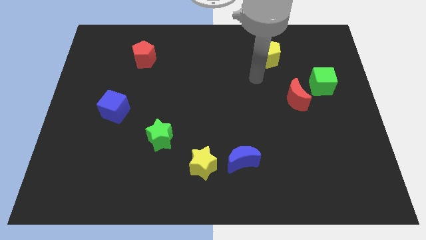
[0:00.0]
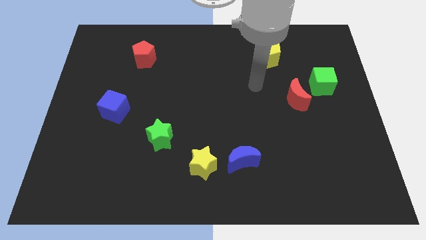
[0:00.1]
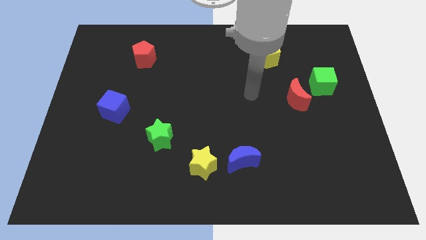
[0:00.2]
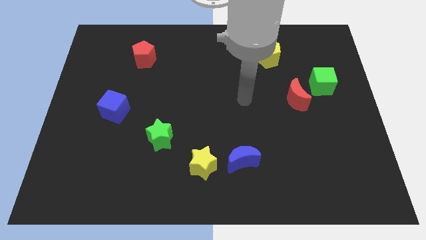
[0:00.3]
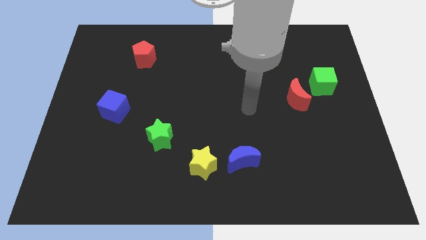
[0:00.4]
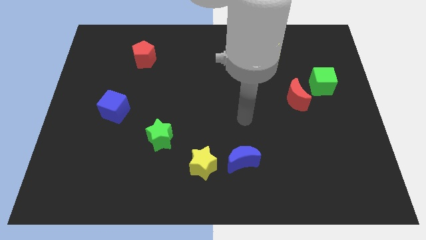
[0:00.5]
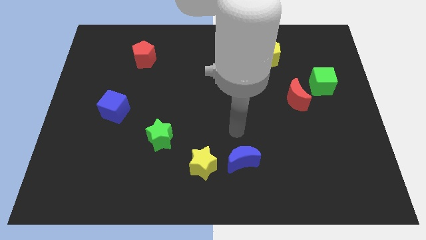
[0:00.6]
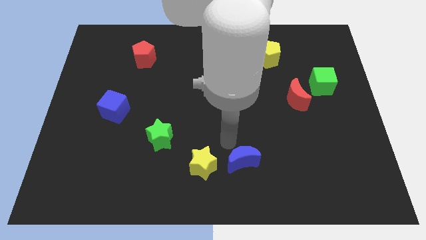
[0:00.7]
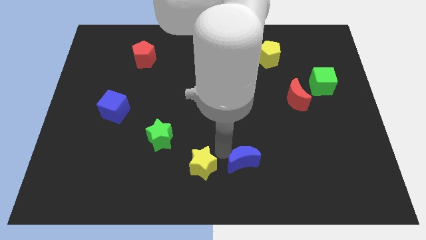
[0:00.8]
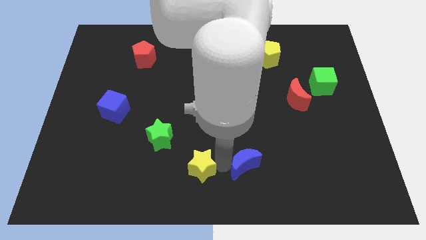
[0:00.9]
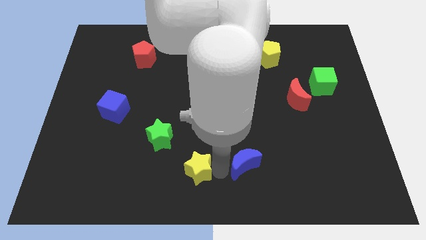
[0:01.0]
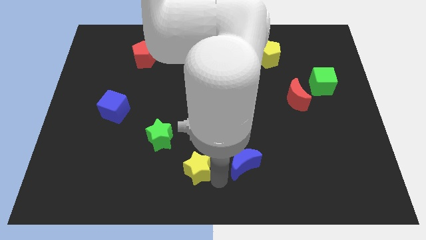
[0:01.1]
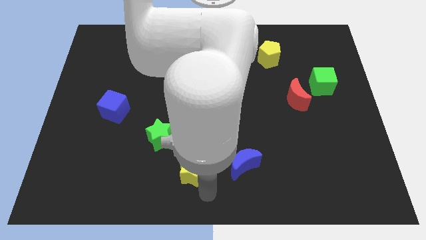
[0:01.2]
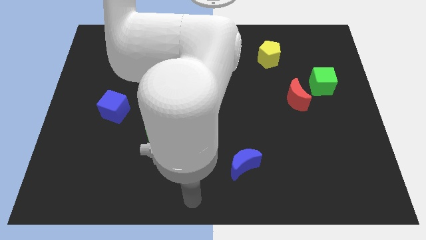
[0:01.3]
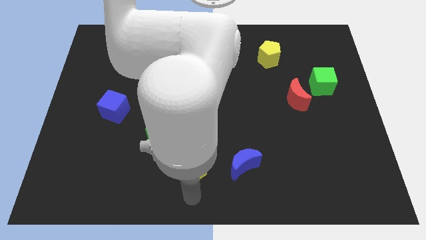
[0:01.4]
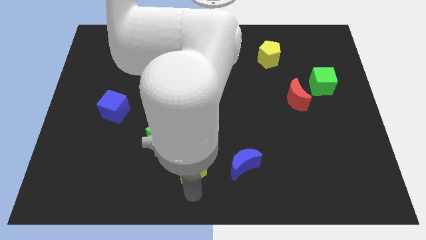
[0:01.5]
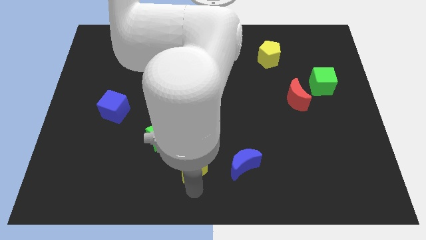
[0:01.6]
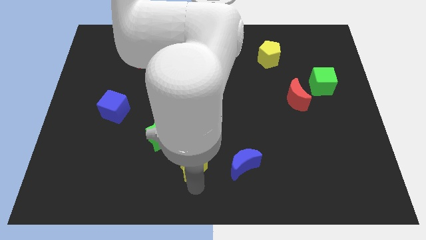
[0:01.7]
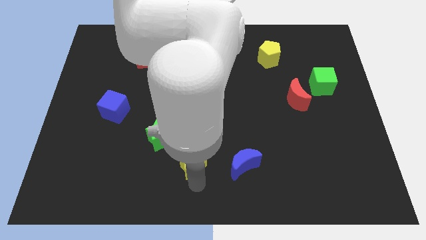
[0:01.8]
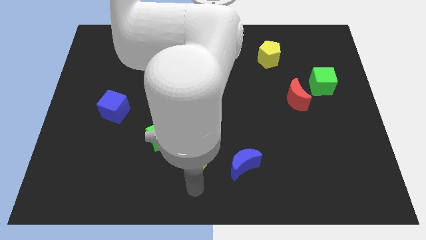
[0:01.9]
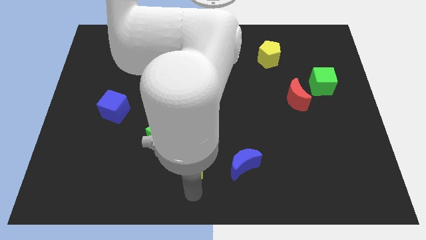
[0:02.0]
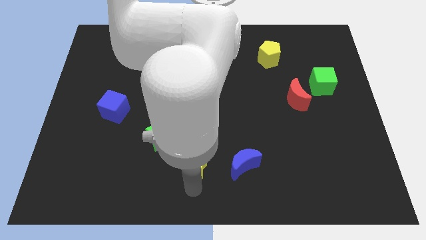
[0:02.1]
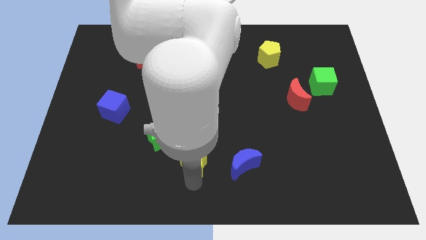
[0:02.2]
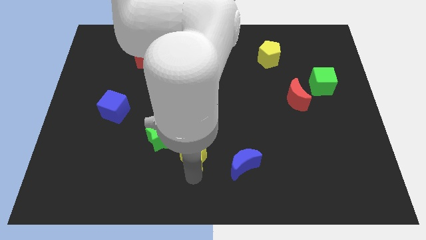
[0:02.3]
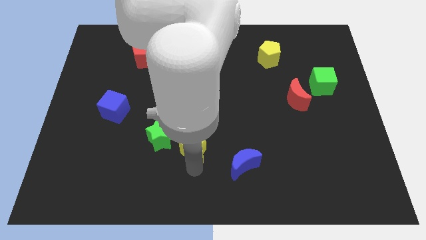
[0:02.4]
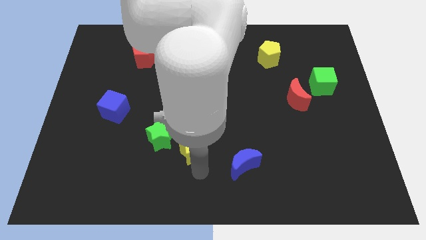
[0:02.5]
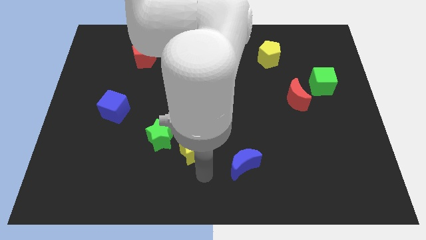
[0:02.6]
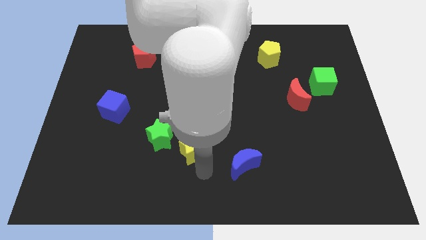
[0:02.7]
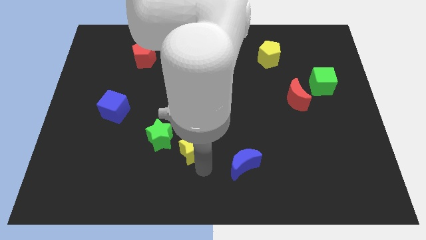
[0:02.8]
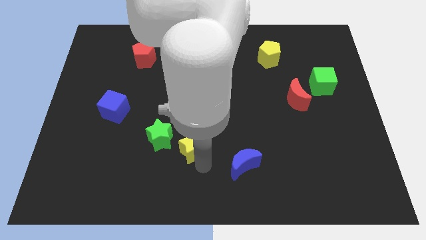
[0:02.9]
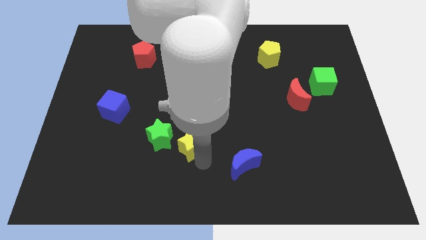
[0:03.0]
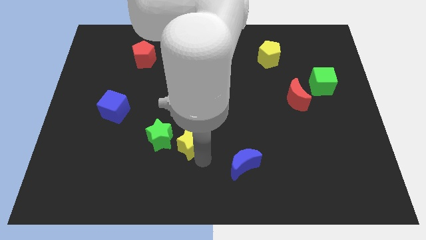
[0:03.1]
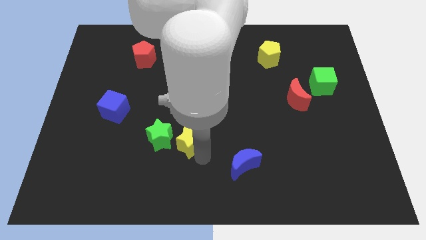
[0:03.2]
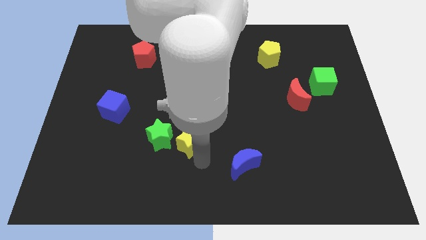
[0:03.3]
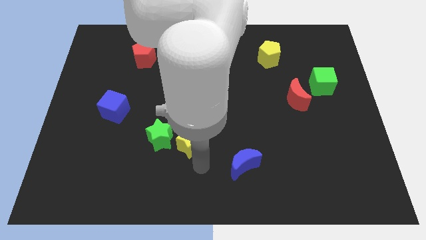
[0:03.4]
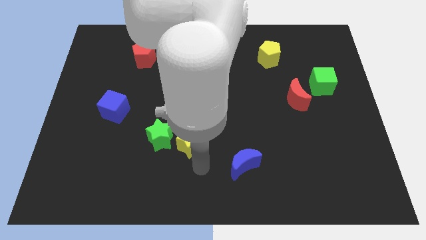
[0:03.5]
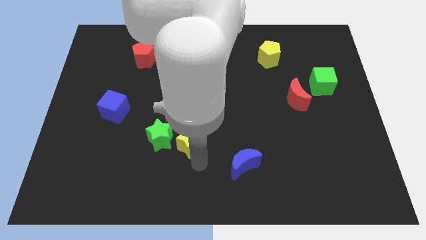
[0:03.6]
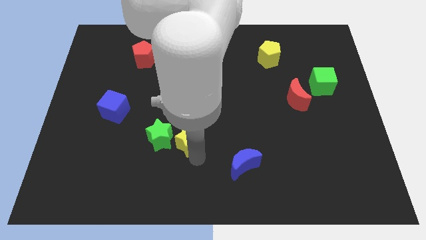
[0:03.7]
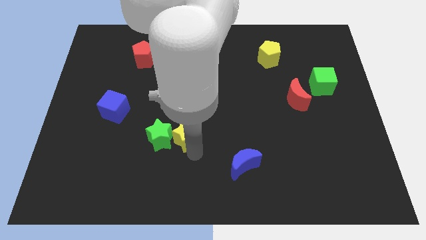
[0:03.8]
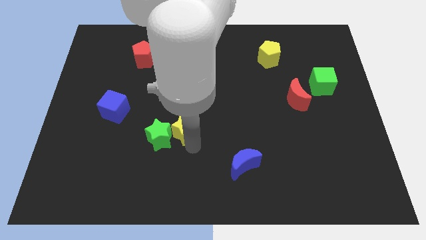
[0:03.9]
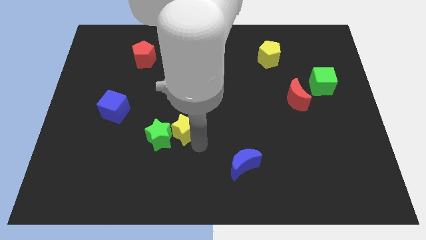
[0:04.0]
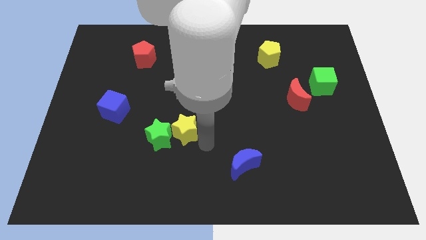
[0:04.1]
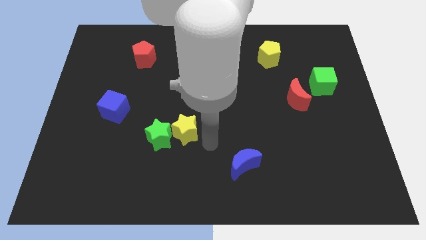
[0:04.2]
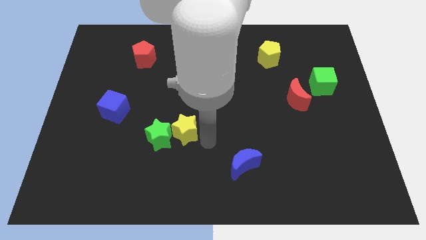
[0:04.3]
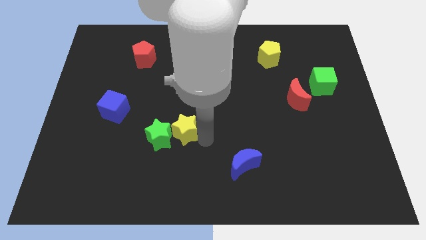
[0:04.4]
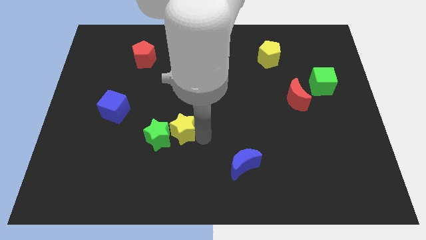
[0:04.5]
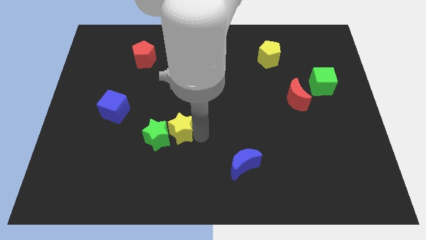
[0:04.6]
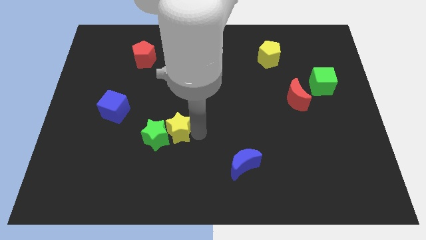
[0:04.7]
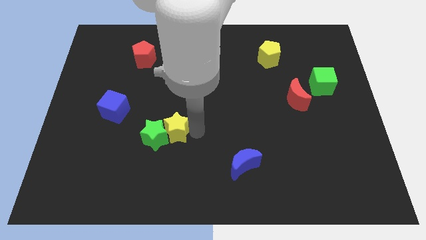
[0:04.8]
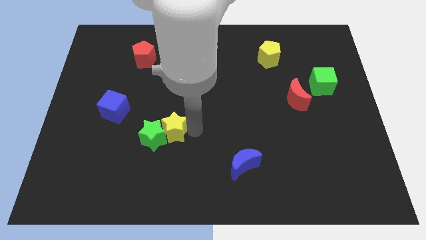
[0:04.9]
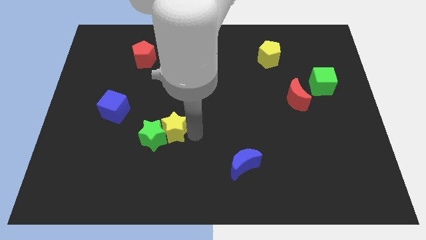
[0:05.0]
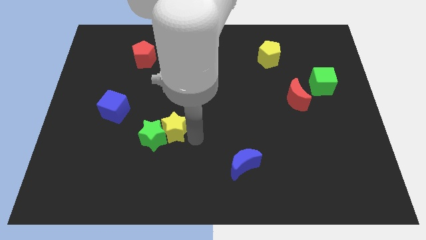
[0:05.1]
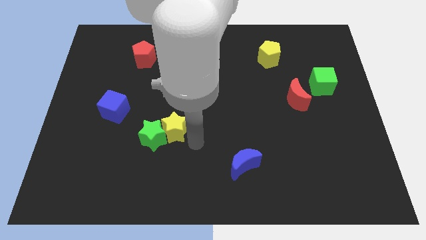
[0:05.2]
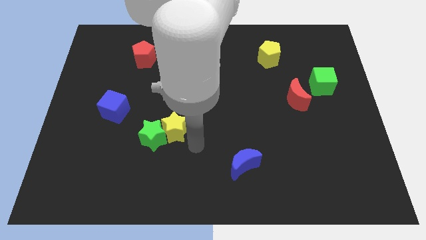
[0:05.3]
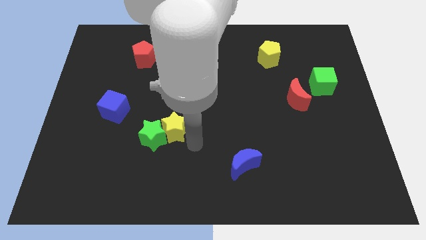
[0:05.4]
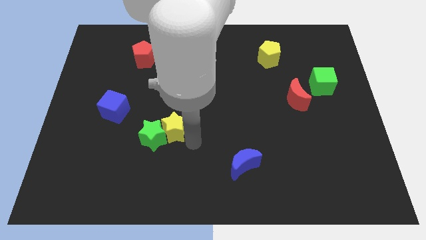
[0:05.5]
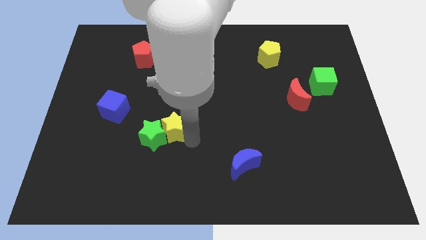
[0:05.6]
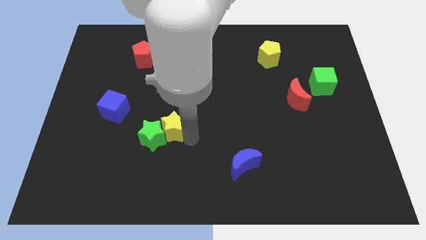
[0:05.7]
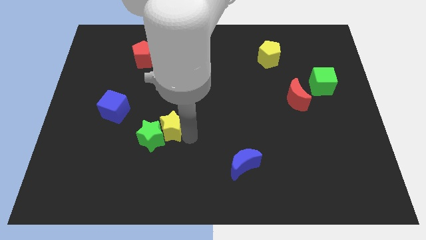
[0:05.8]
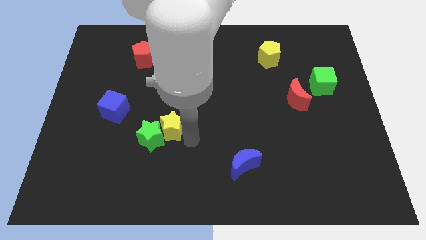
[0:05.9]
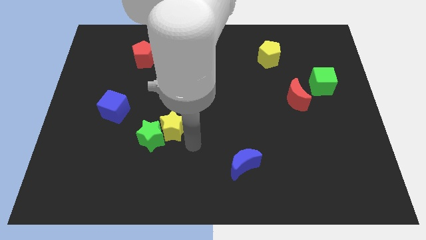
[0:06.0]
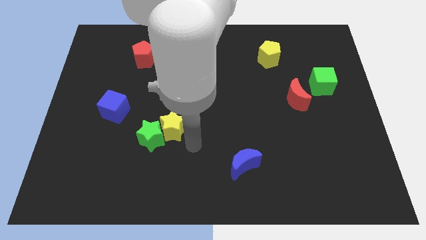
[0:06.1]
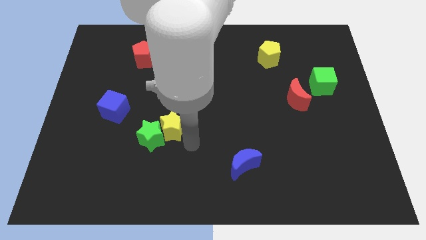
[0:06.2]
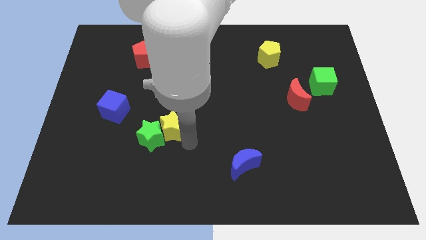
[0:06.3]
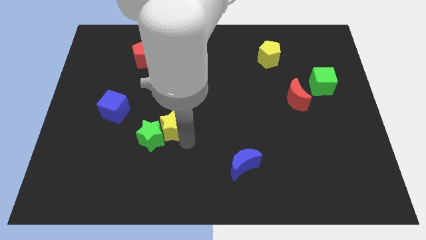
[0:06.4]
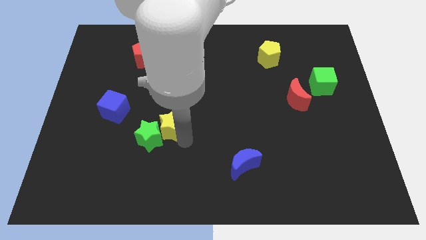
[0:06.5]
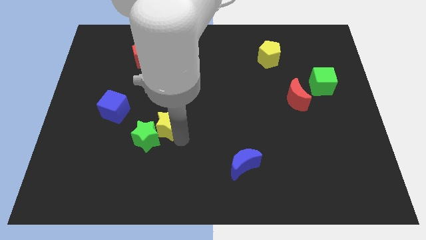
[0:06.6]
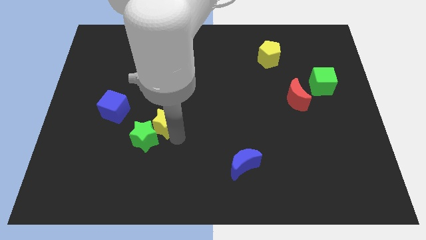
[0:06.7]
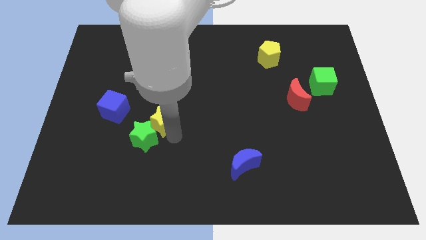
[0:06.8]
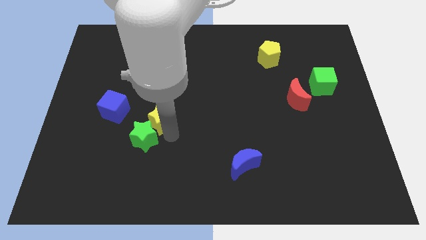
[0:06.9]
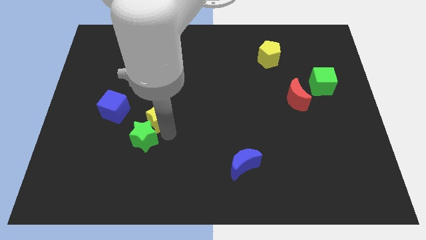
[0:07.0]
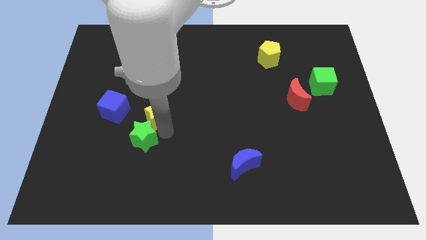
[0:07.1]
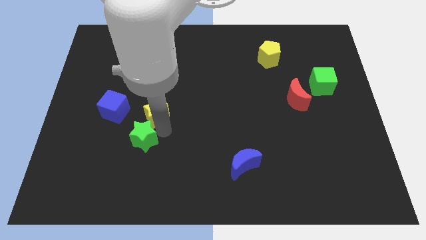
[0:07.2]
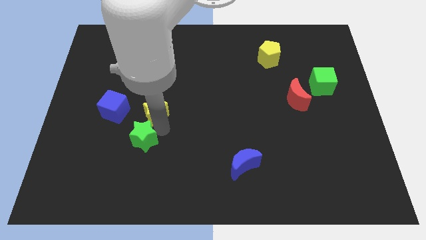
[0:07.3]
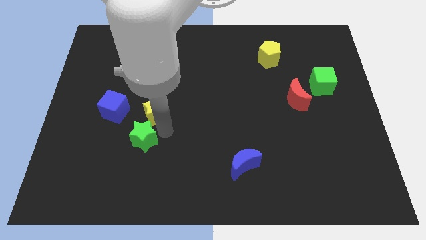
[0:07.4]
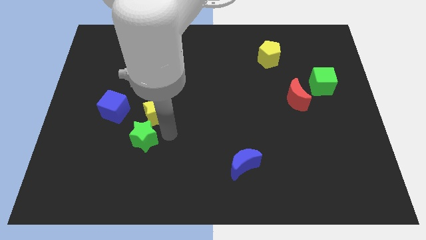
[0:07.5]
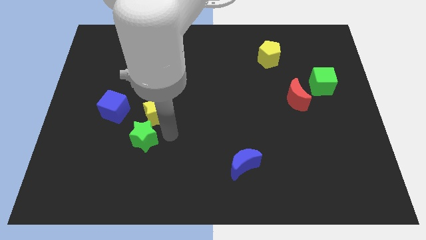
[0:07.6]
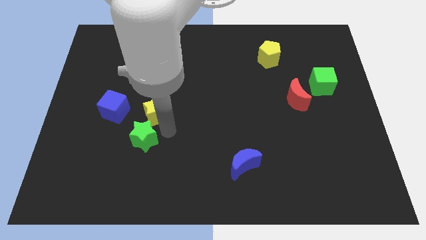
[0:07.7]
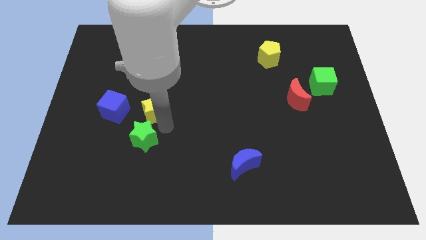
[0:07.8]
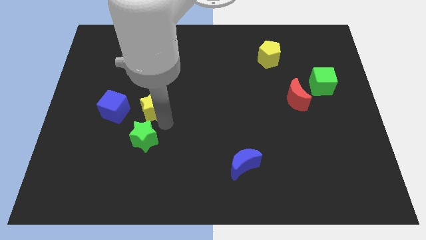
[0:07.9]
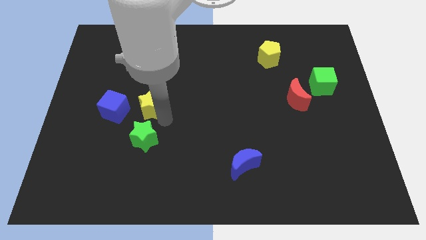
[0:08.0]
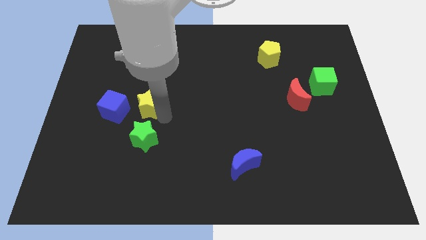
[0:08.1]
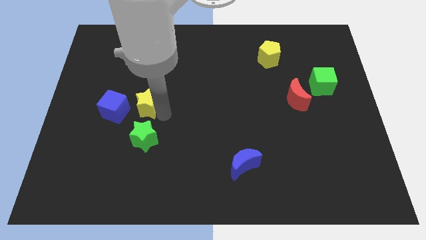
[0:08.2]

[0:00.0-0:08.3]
move the yellow star diagonally up and to the left

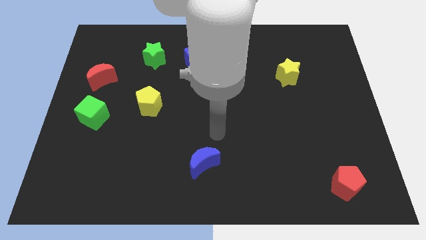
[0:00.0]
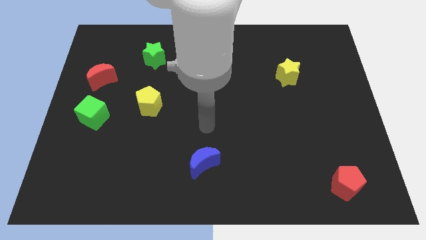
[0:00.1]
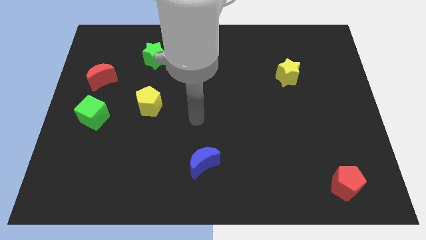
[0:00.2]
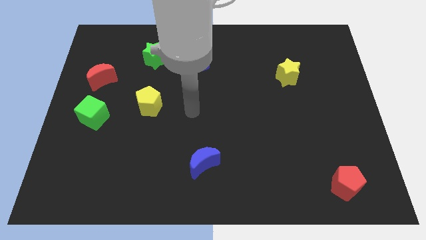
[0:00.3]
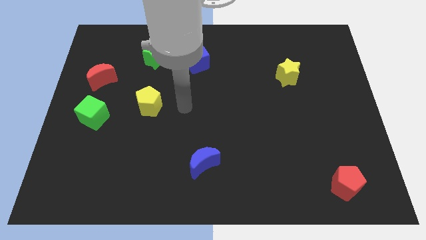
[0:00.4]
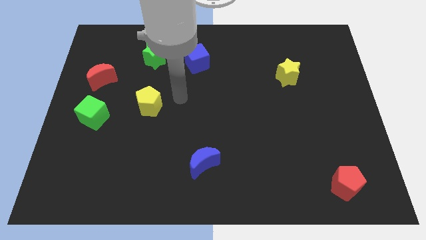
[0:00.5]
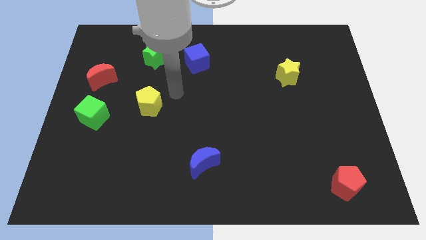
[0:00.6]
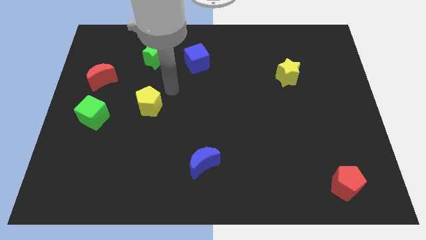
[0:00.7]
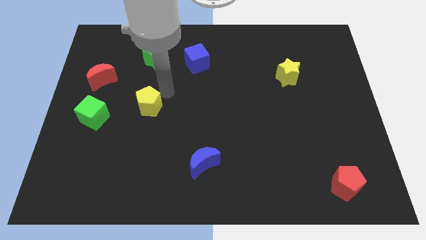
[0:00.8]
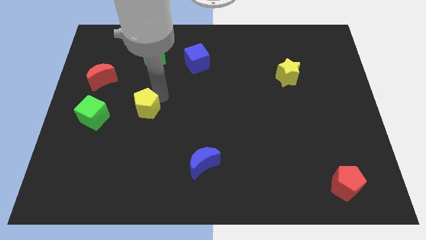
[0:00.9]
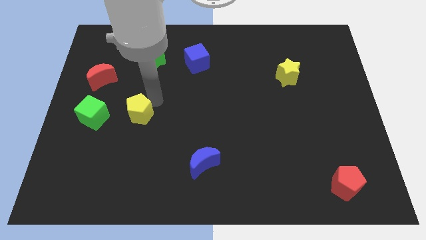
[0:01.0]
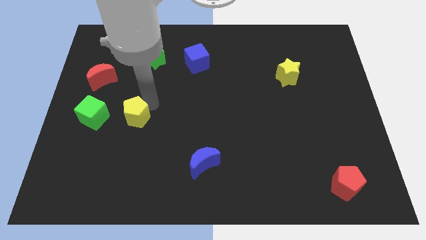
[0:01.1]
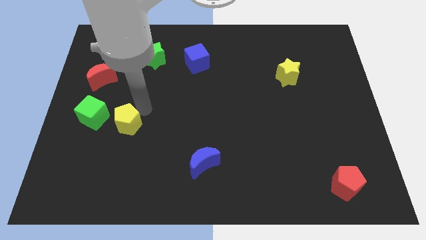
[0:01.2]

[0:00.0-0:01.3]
push the yellow pentagon diagonally down and left slightly
